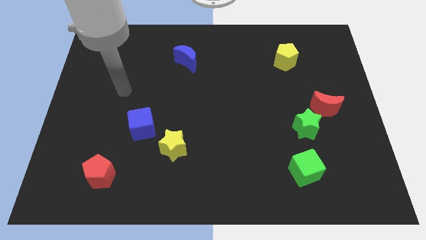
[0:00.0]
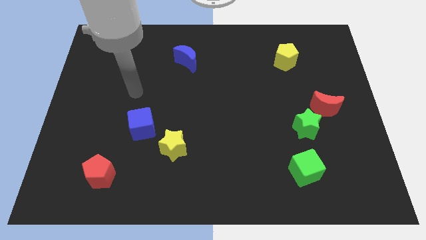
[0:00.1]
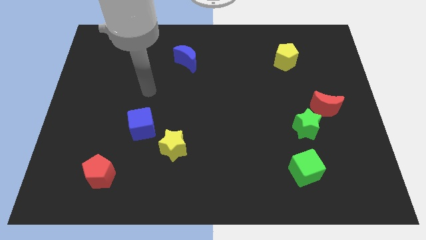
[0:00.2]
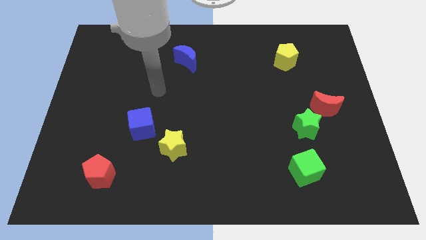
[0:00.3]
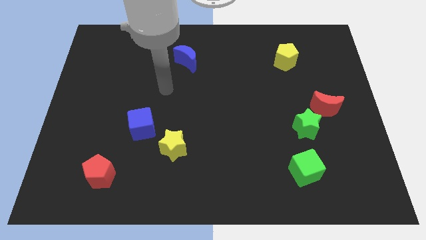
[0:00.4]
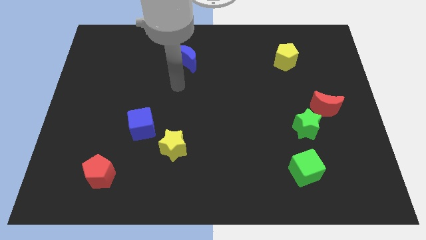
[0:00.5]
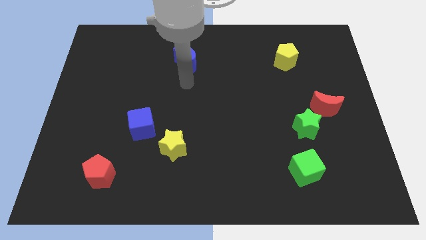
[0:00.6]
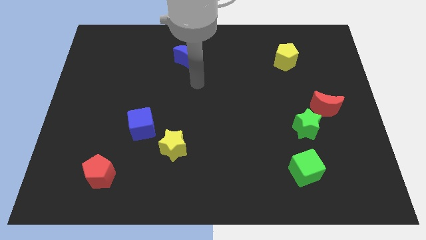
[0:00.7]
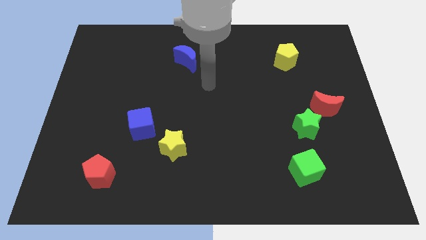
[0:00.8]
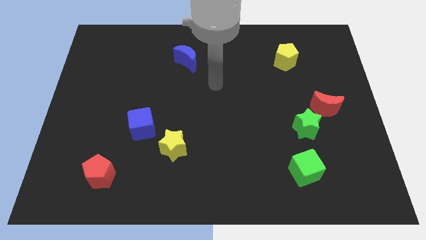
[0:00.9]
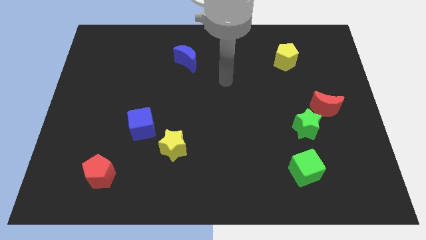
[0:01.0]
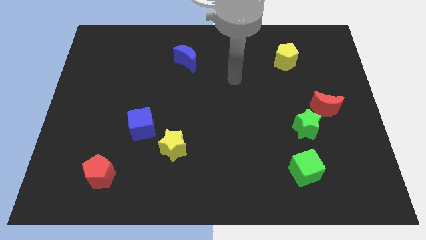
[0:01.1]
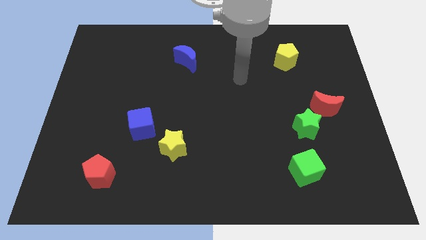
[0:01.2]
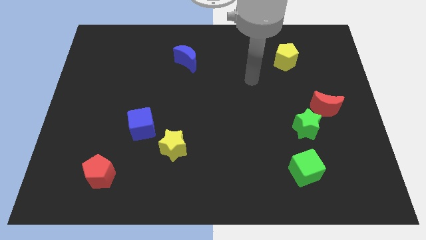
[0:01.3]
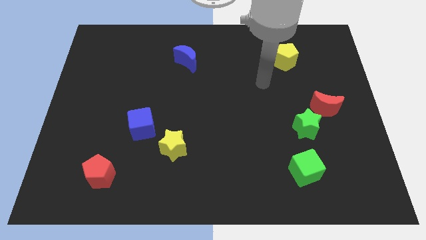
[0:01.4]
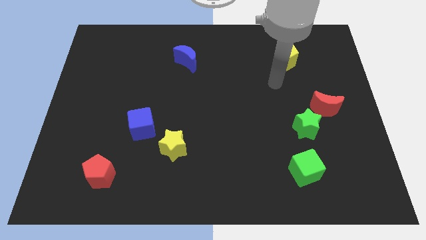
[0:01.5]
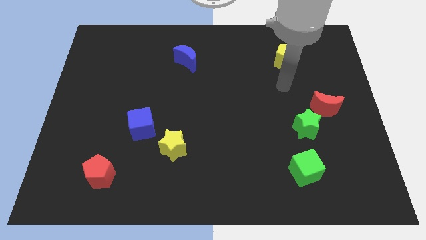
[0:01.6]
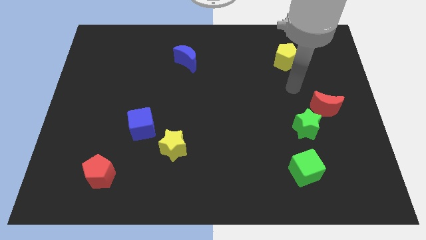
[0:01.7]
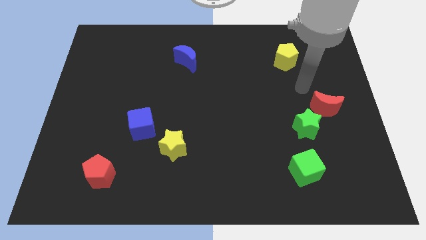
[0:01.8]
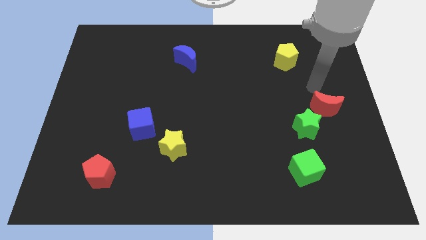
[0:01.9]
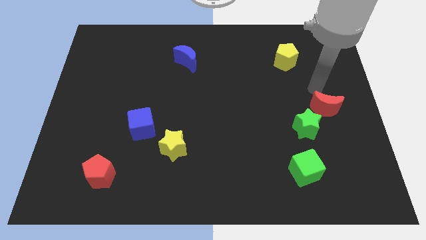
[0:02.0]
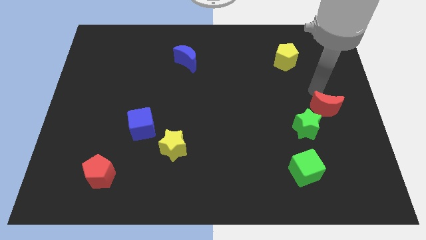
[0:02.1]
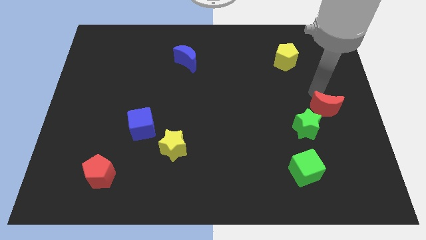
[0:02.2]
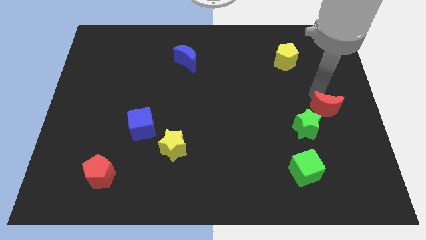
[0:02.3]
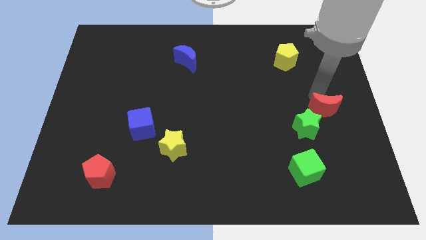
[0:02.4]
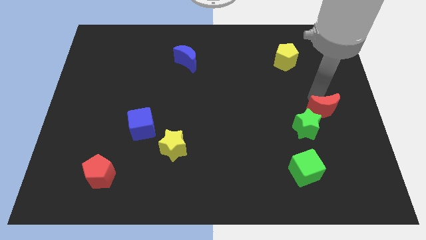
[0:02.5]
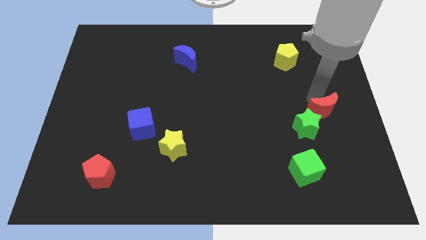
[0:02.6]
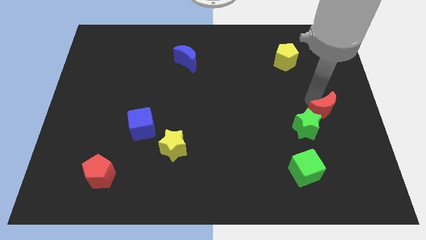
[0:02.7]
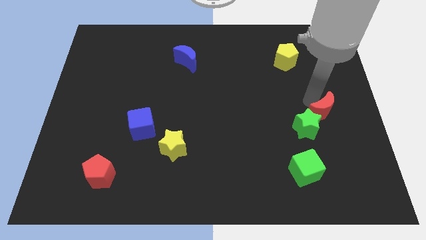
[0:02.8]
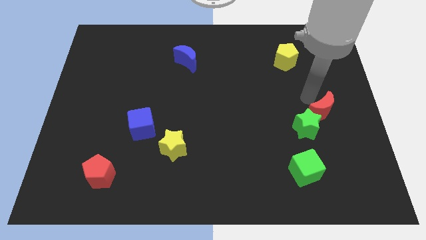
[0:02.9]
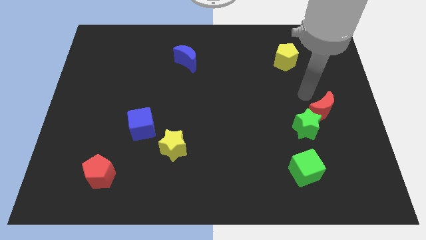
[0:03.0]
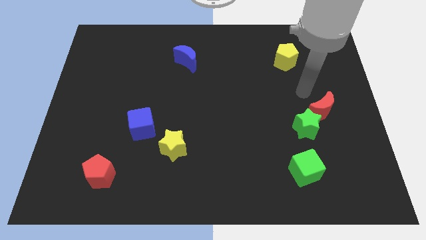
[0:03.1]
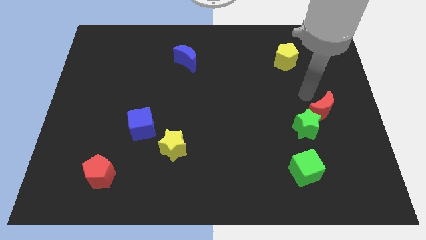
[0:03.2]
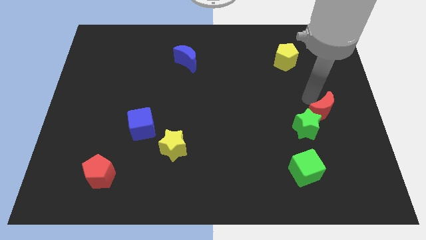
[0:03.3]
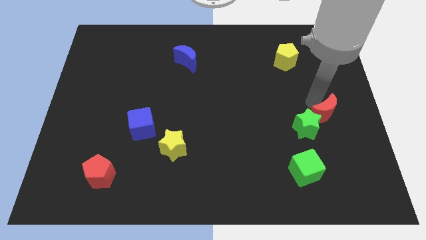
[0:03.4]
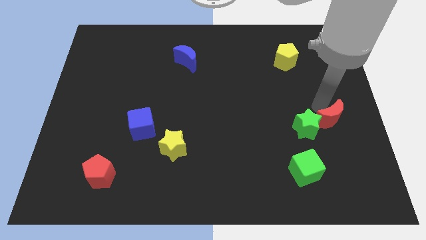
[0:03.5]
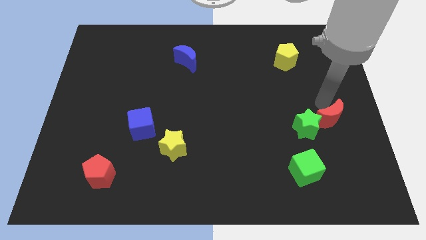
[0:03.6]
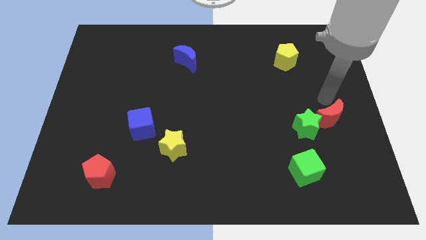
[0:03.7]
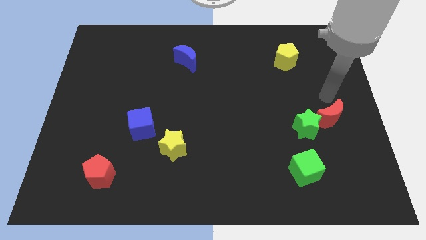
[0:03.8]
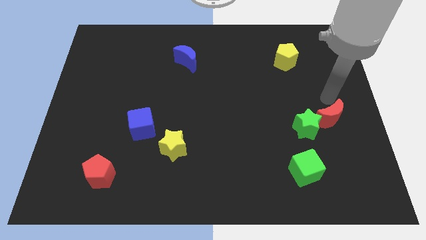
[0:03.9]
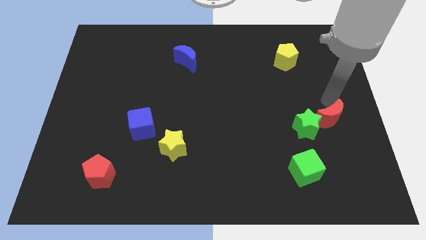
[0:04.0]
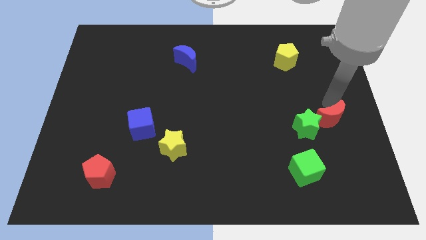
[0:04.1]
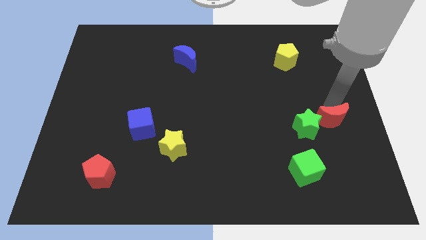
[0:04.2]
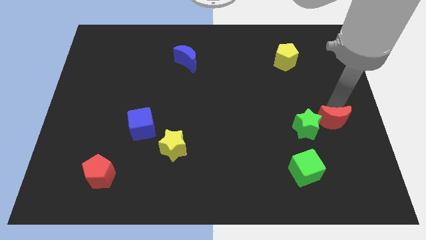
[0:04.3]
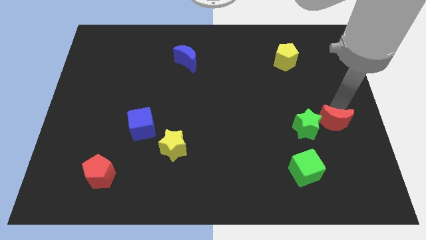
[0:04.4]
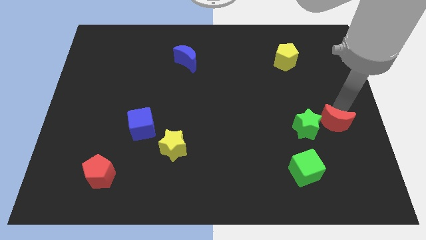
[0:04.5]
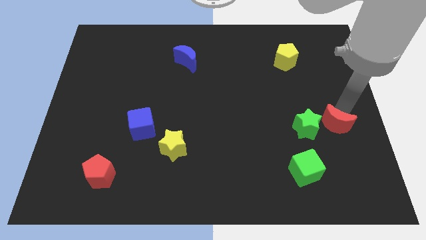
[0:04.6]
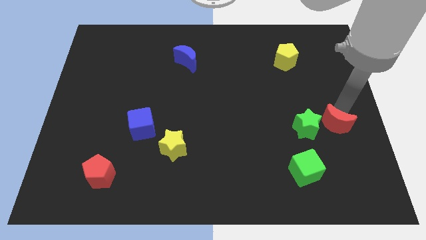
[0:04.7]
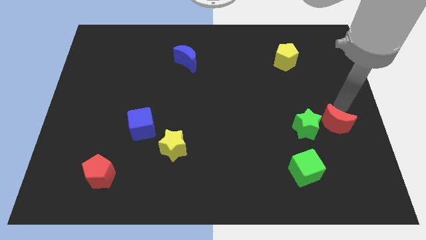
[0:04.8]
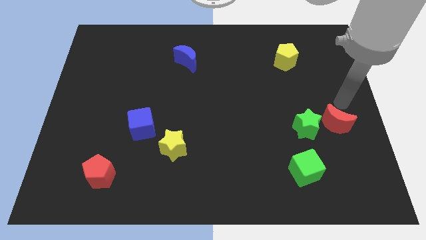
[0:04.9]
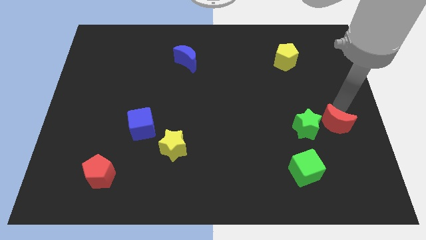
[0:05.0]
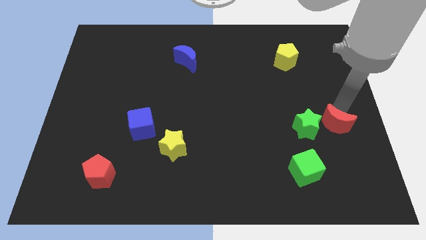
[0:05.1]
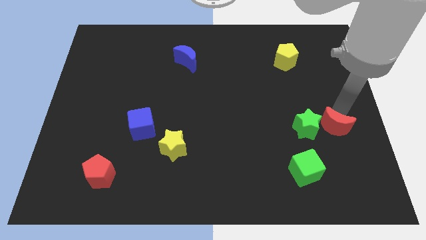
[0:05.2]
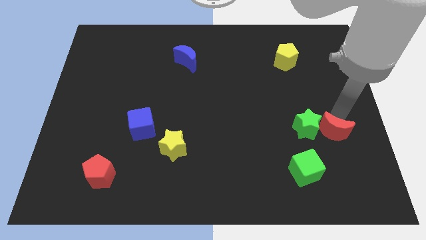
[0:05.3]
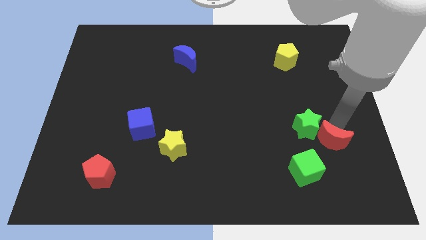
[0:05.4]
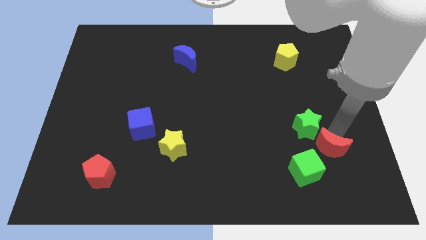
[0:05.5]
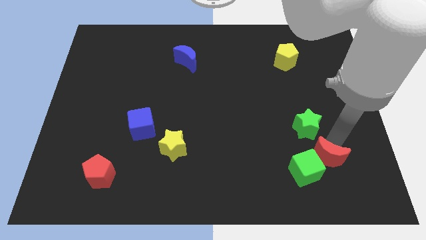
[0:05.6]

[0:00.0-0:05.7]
slide the red moon to the green cube
